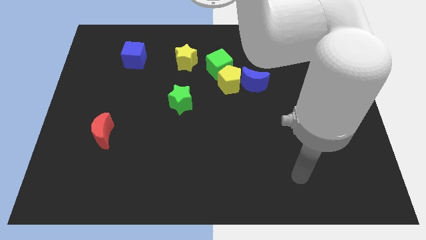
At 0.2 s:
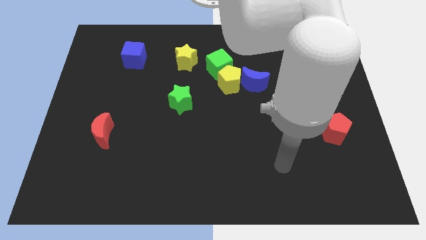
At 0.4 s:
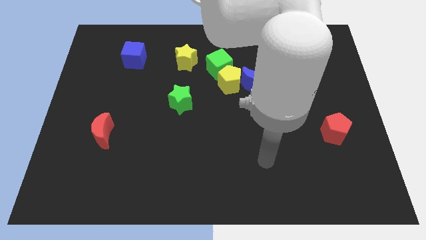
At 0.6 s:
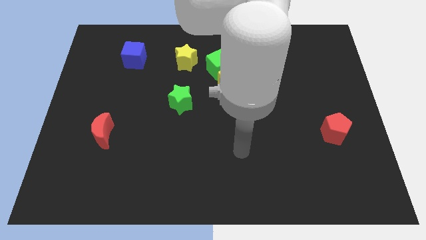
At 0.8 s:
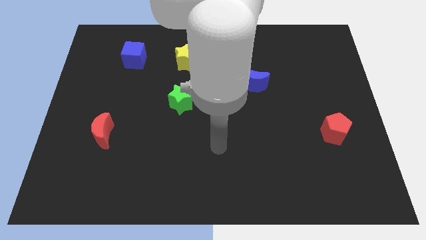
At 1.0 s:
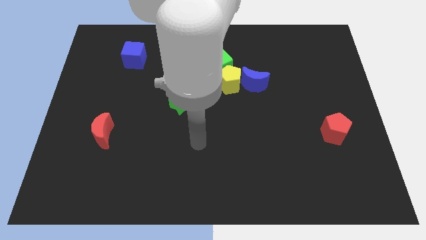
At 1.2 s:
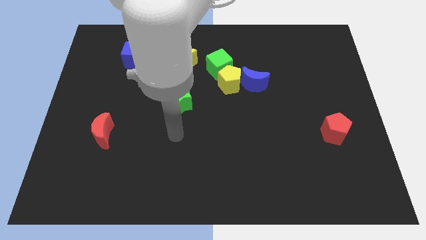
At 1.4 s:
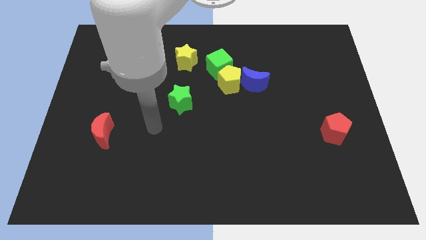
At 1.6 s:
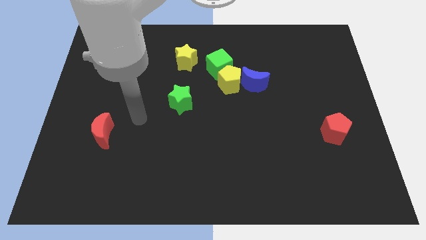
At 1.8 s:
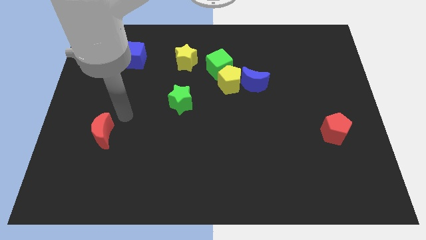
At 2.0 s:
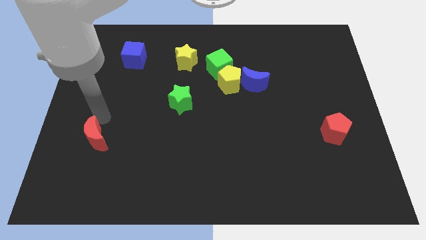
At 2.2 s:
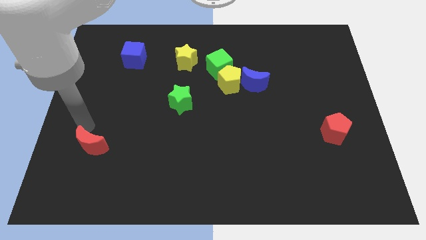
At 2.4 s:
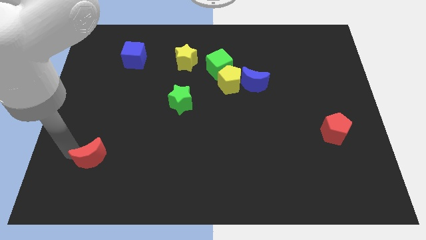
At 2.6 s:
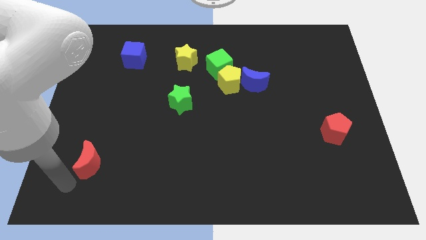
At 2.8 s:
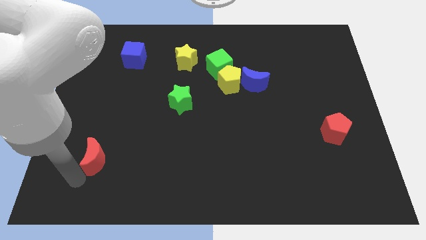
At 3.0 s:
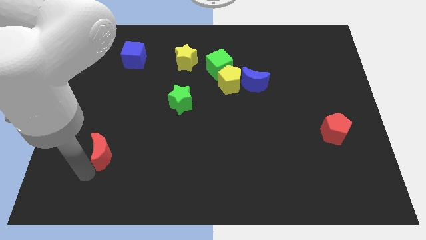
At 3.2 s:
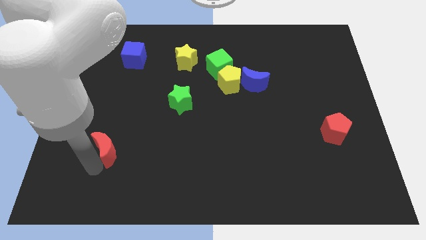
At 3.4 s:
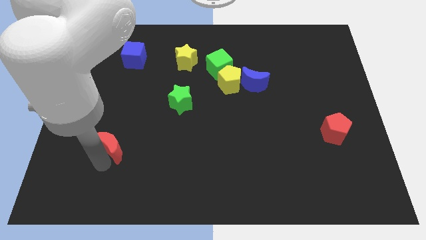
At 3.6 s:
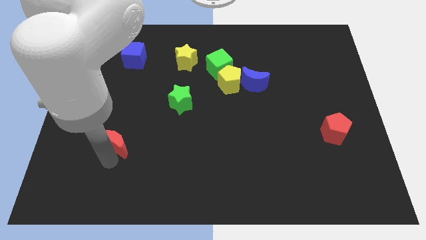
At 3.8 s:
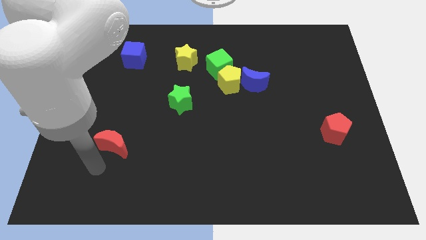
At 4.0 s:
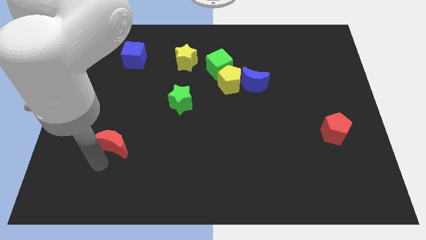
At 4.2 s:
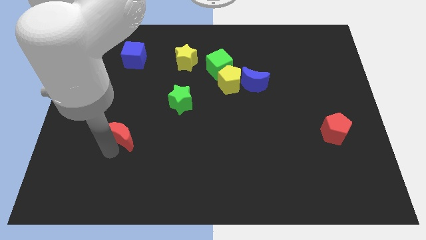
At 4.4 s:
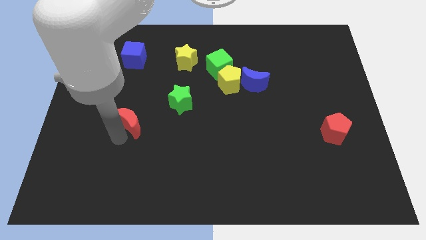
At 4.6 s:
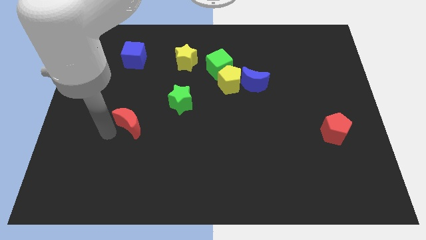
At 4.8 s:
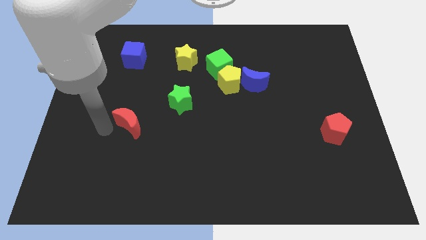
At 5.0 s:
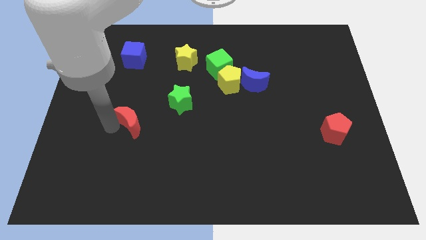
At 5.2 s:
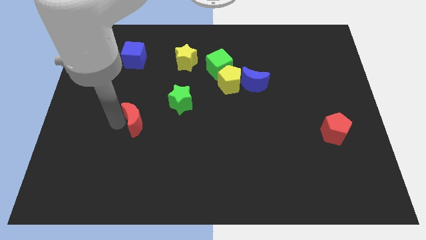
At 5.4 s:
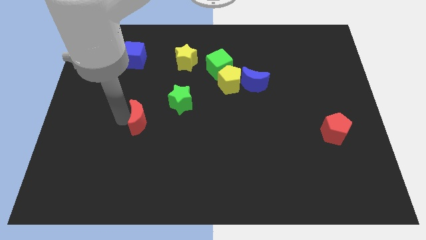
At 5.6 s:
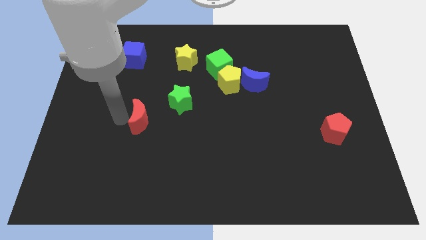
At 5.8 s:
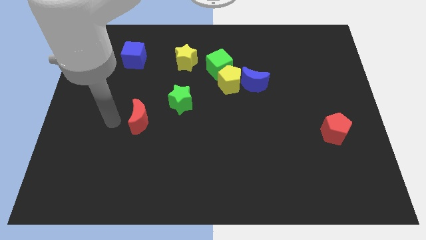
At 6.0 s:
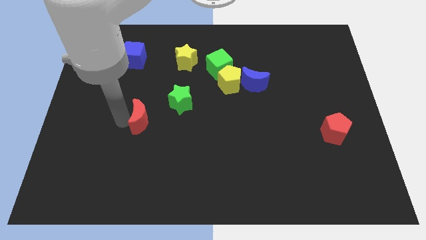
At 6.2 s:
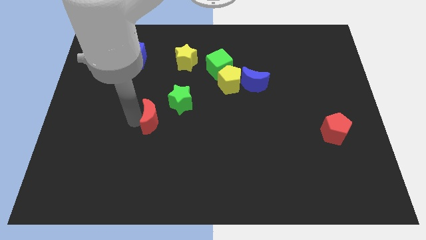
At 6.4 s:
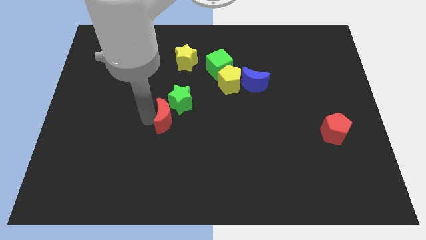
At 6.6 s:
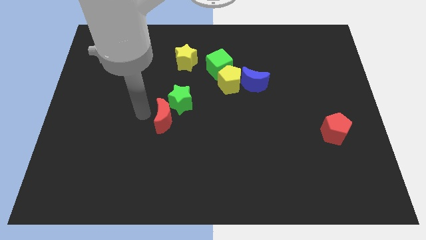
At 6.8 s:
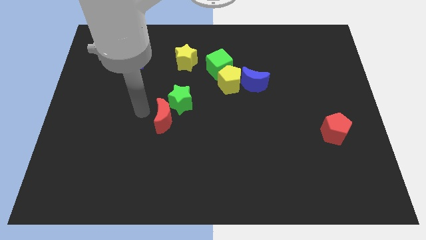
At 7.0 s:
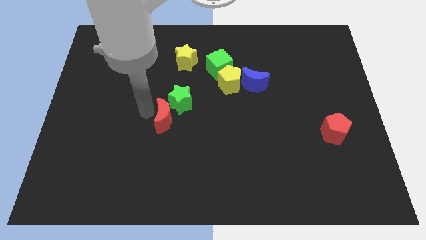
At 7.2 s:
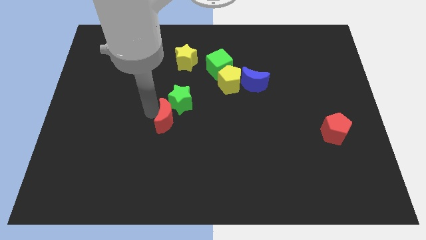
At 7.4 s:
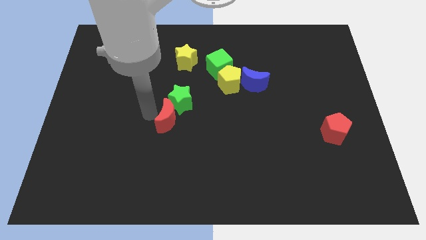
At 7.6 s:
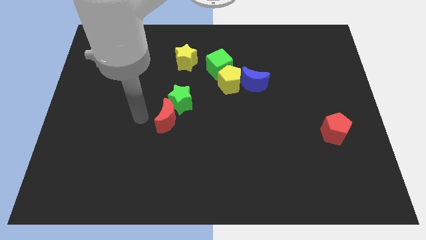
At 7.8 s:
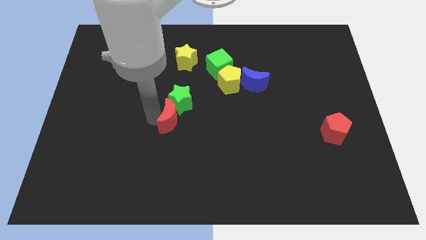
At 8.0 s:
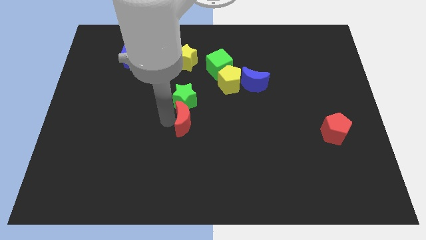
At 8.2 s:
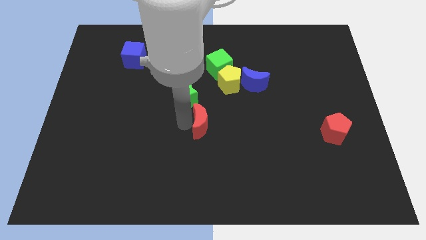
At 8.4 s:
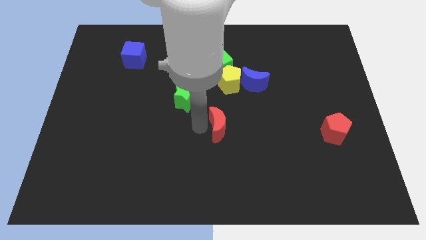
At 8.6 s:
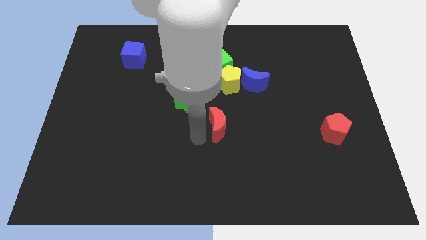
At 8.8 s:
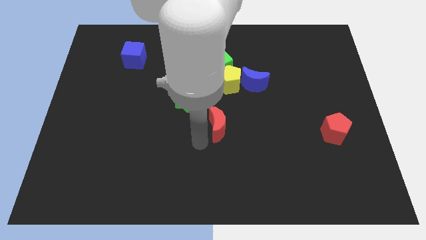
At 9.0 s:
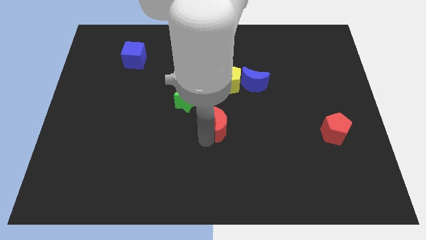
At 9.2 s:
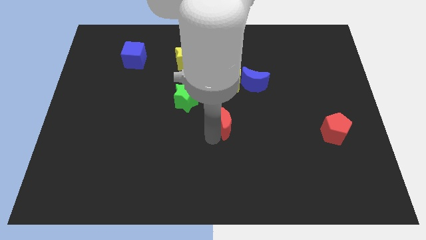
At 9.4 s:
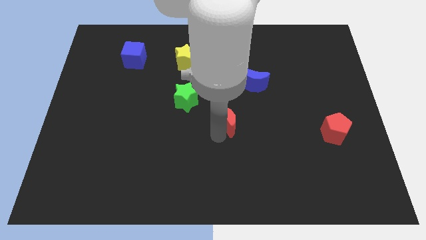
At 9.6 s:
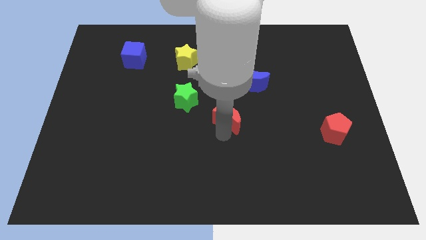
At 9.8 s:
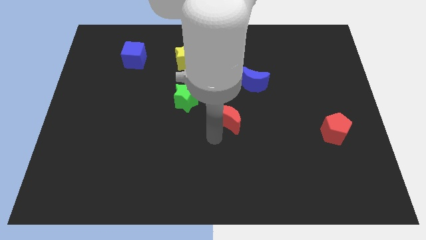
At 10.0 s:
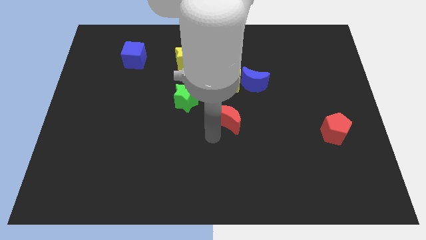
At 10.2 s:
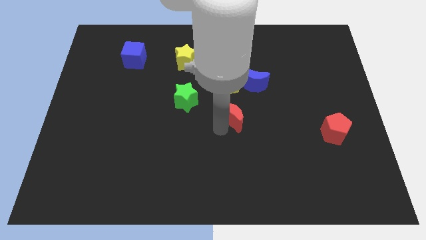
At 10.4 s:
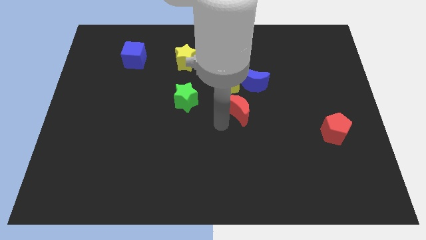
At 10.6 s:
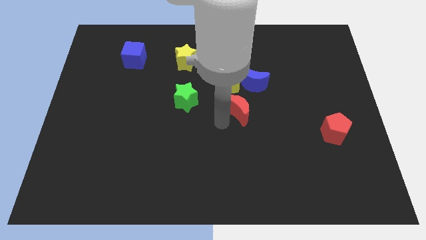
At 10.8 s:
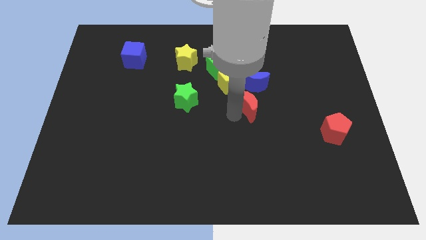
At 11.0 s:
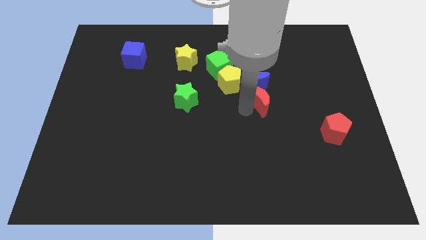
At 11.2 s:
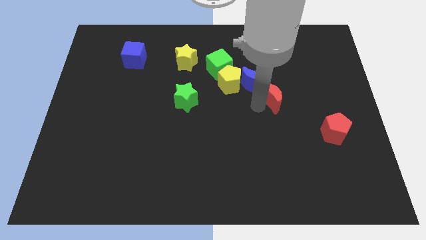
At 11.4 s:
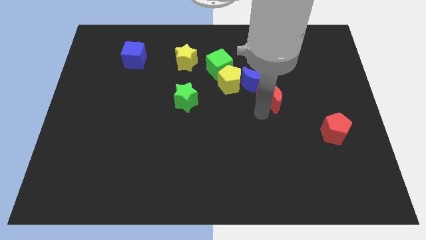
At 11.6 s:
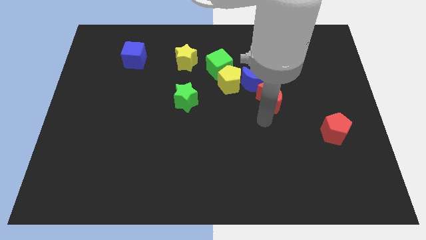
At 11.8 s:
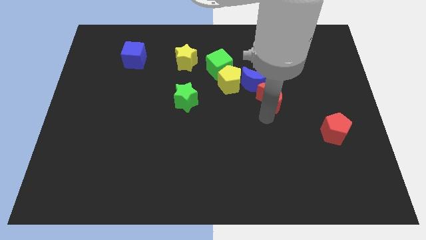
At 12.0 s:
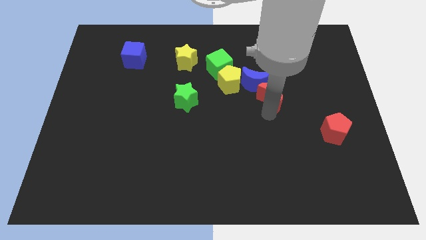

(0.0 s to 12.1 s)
slide the red moon just right of the blue moon

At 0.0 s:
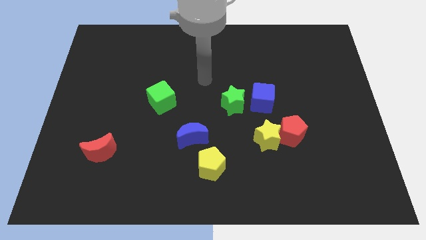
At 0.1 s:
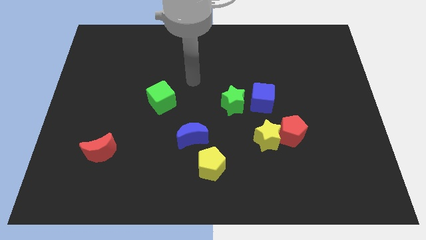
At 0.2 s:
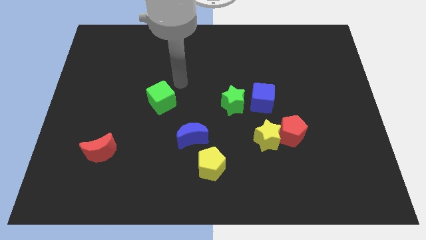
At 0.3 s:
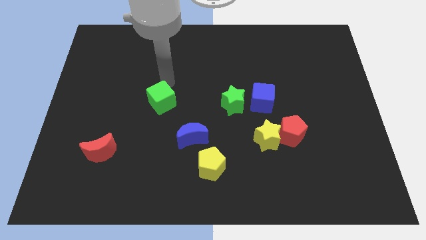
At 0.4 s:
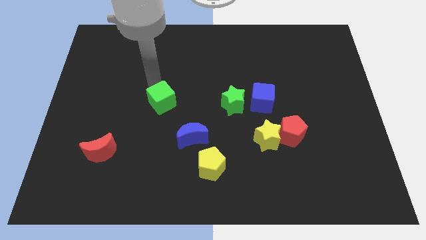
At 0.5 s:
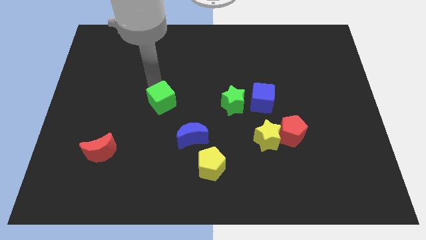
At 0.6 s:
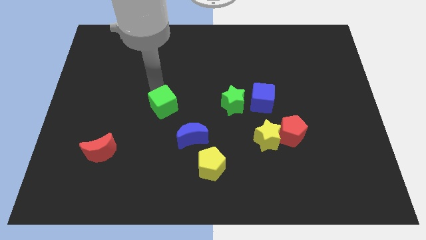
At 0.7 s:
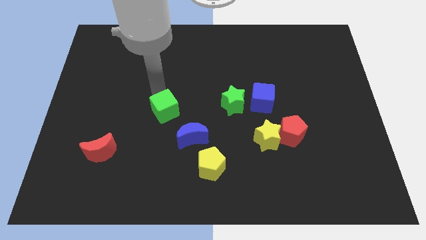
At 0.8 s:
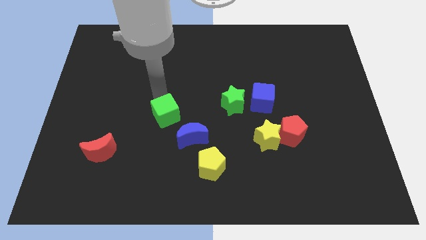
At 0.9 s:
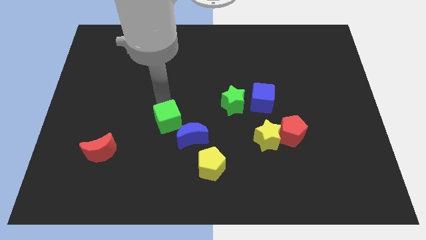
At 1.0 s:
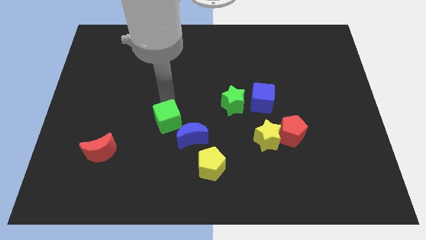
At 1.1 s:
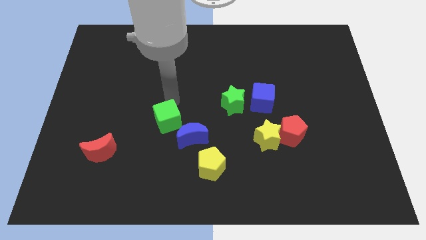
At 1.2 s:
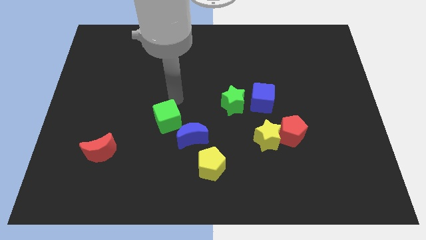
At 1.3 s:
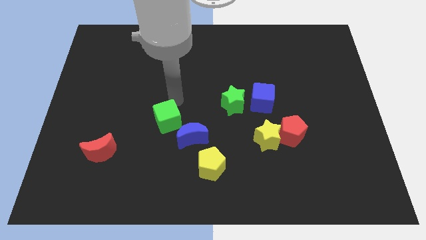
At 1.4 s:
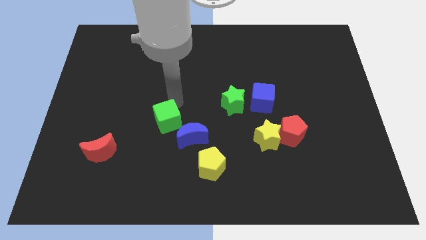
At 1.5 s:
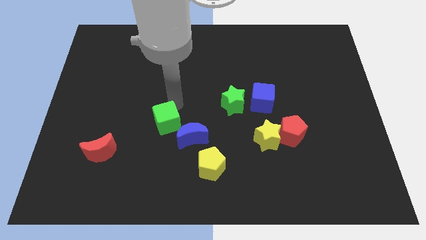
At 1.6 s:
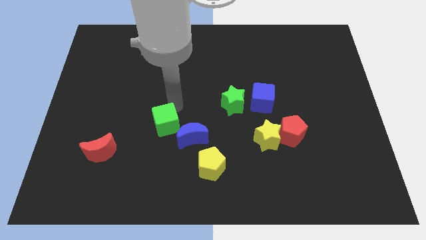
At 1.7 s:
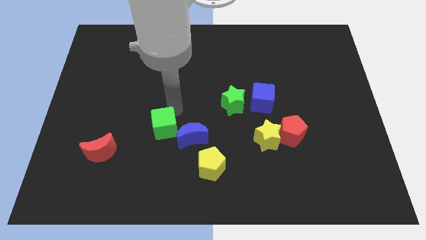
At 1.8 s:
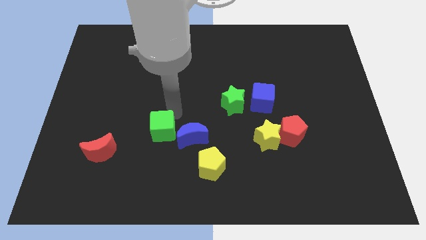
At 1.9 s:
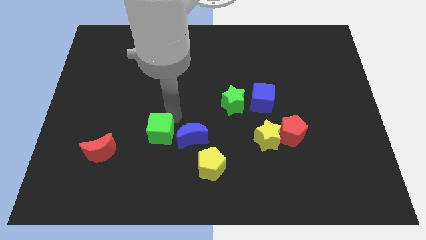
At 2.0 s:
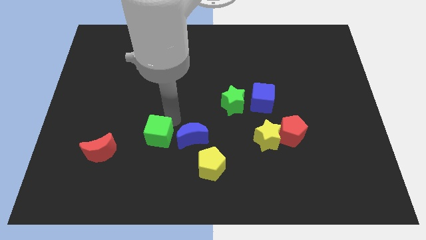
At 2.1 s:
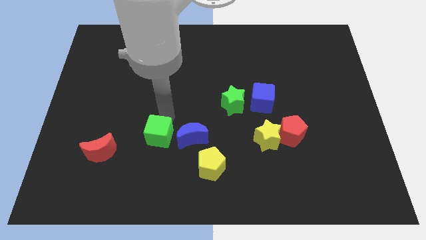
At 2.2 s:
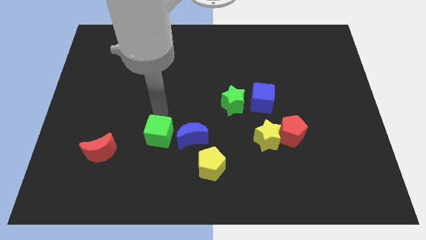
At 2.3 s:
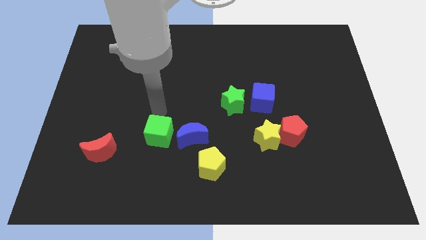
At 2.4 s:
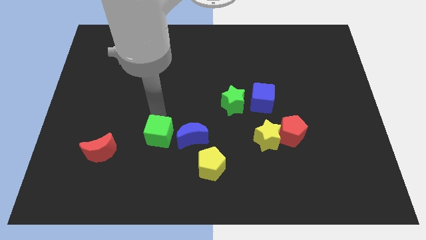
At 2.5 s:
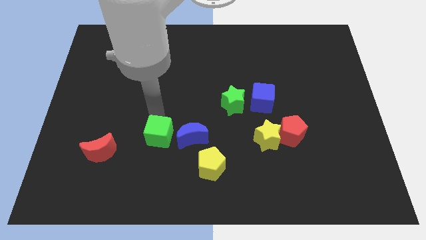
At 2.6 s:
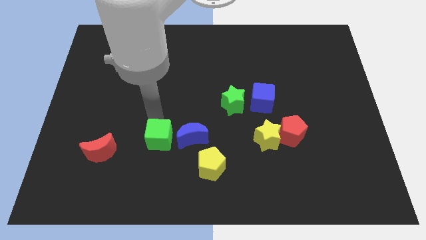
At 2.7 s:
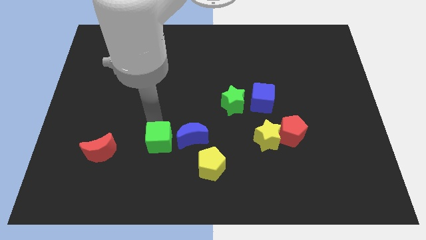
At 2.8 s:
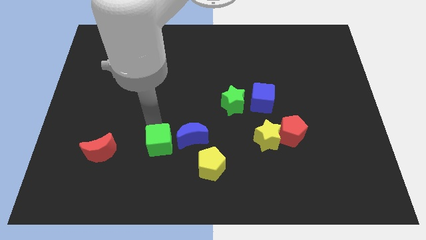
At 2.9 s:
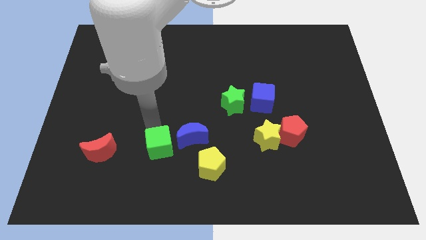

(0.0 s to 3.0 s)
move the green cube to the left side of the yellow pentagon
